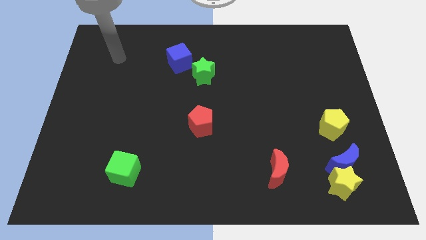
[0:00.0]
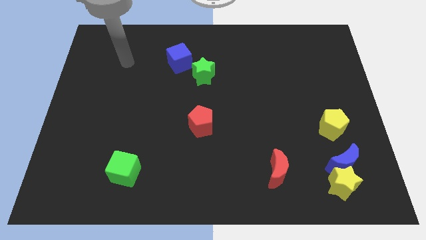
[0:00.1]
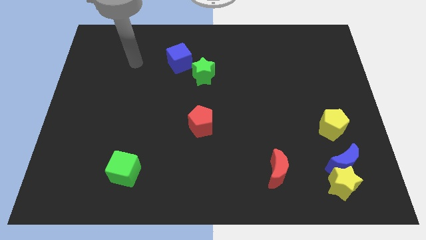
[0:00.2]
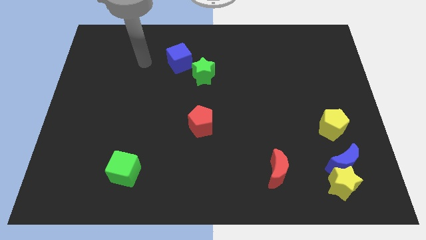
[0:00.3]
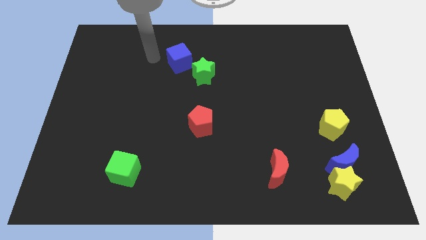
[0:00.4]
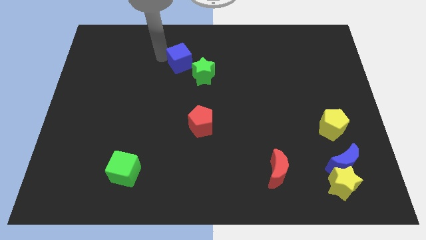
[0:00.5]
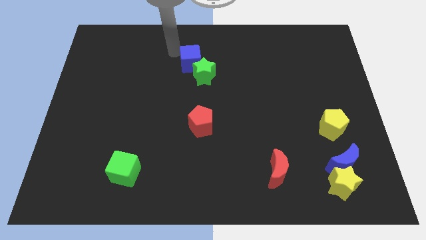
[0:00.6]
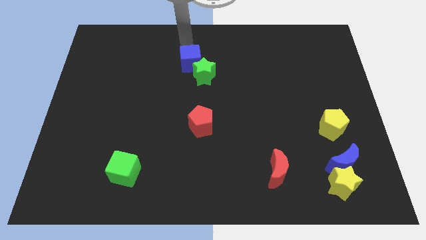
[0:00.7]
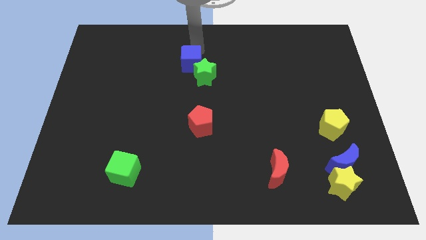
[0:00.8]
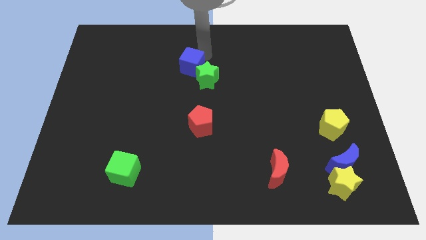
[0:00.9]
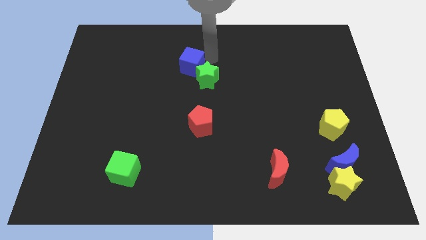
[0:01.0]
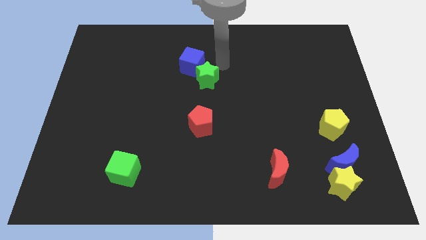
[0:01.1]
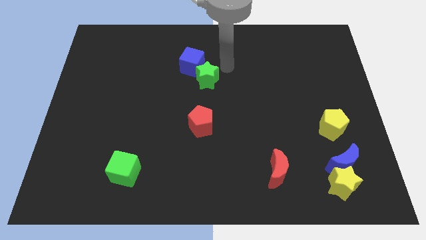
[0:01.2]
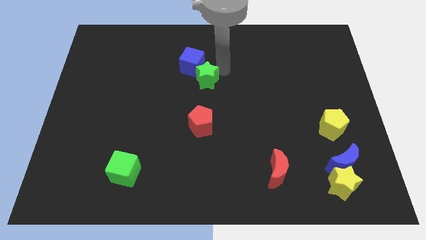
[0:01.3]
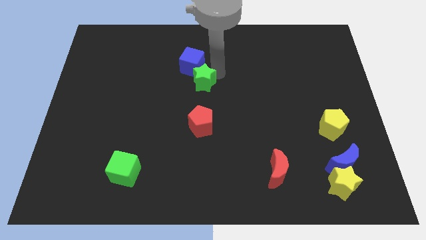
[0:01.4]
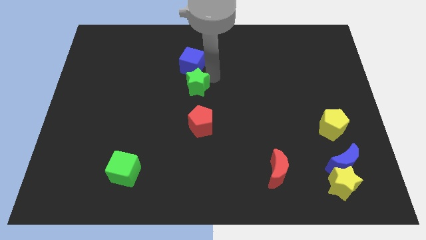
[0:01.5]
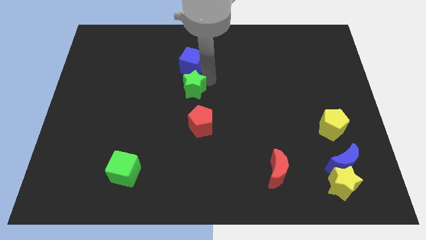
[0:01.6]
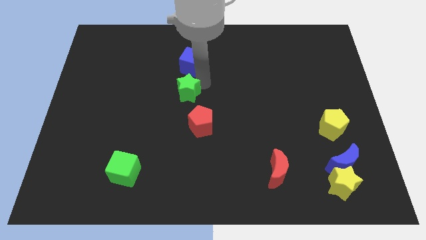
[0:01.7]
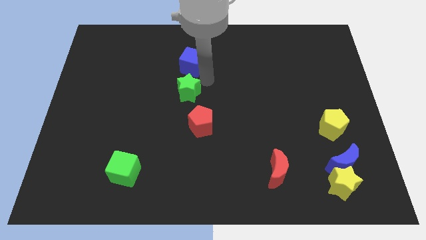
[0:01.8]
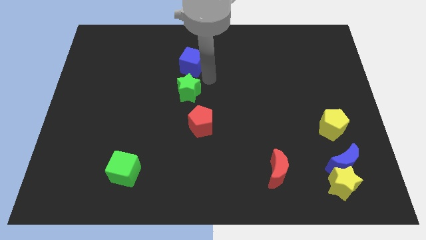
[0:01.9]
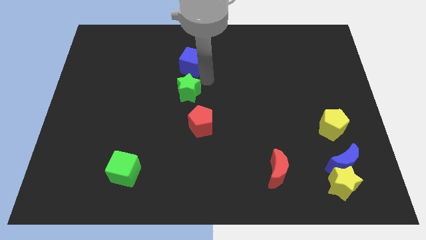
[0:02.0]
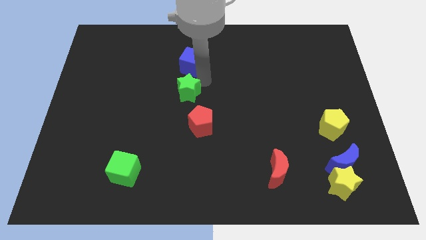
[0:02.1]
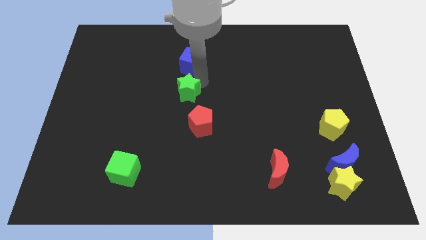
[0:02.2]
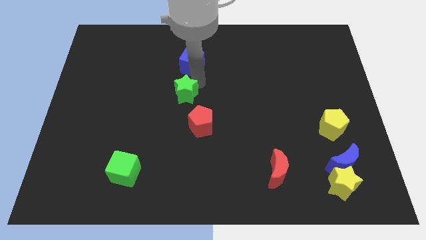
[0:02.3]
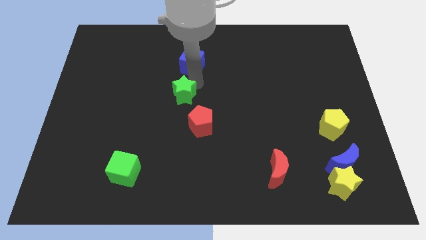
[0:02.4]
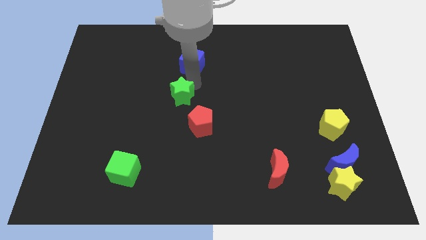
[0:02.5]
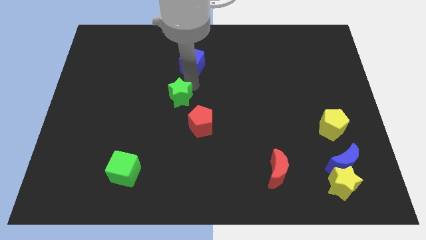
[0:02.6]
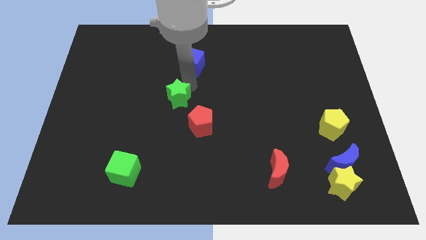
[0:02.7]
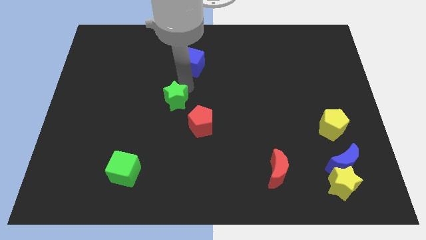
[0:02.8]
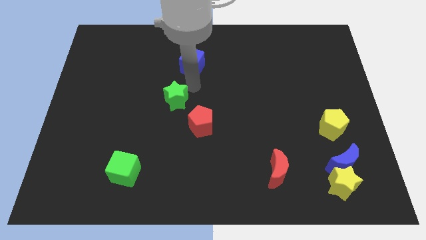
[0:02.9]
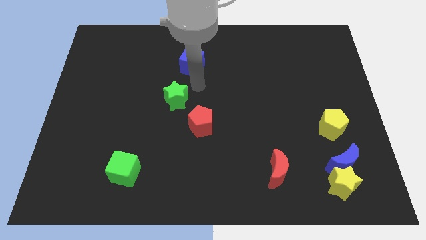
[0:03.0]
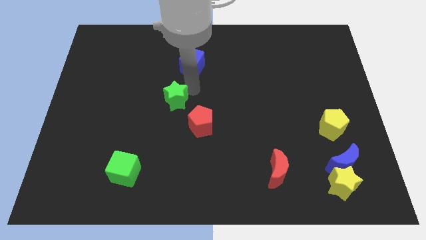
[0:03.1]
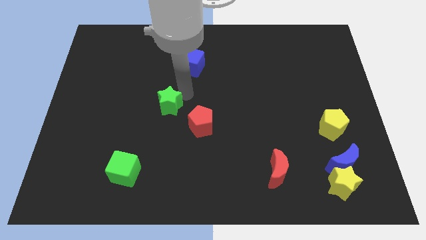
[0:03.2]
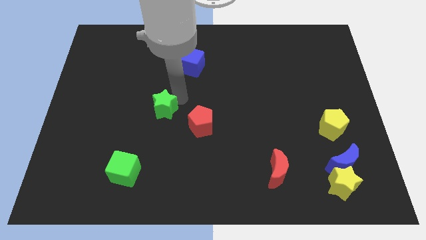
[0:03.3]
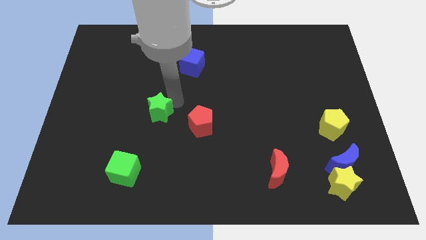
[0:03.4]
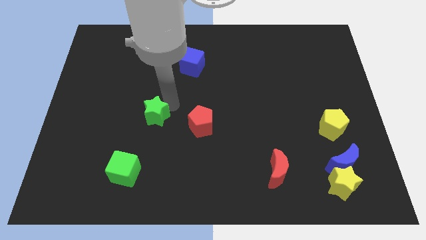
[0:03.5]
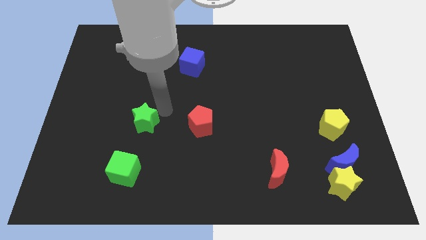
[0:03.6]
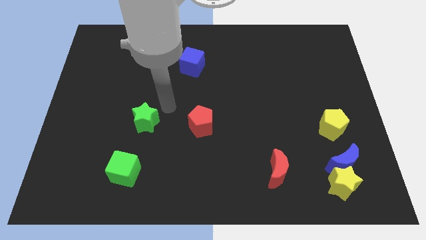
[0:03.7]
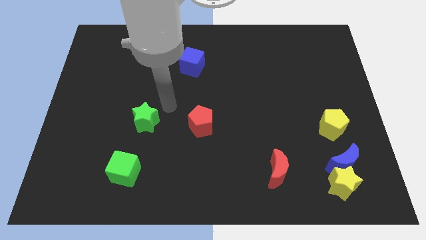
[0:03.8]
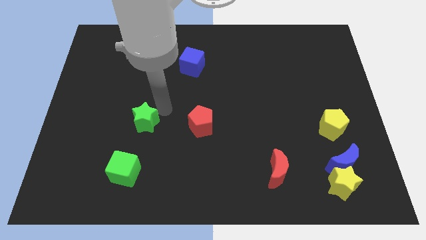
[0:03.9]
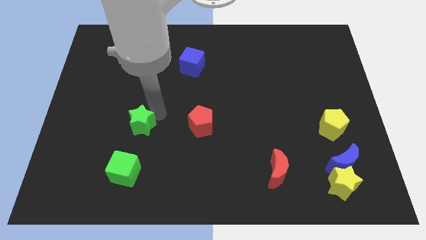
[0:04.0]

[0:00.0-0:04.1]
push the green star down and to the left

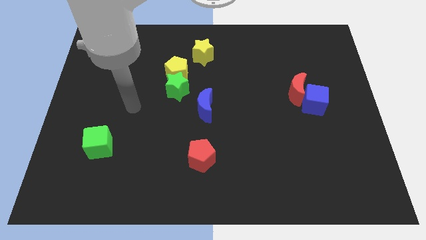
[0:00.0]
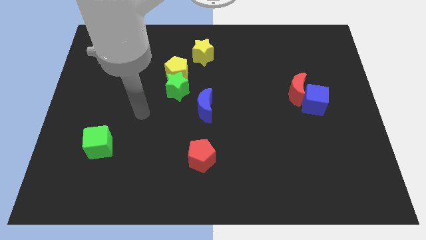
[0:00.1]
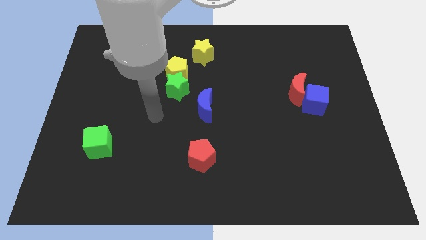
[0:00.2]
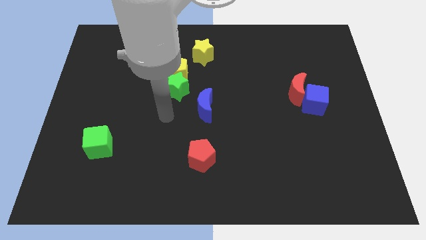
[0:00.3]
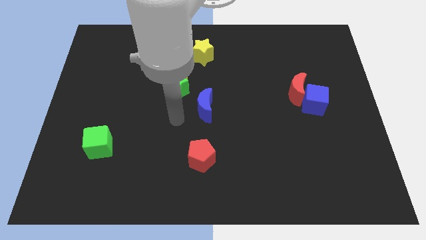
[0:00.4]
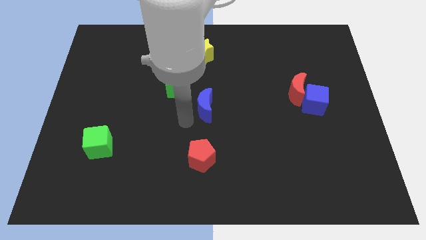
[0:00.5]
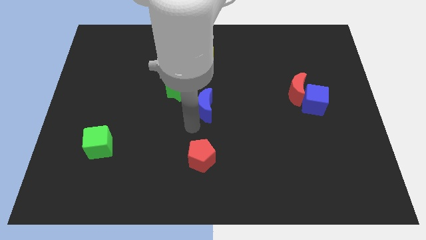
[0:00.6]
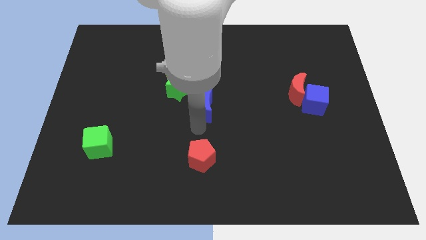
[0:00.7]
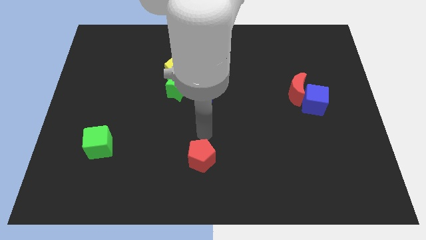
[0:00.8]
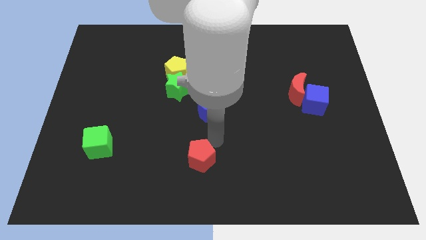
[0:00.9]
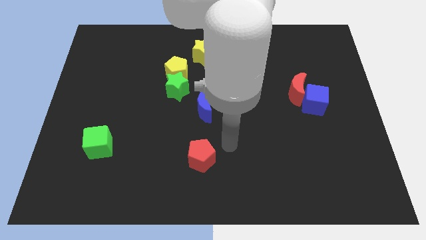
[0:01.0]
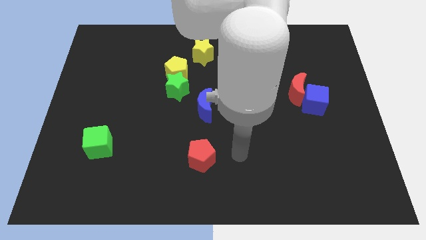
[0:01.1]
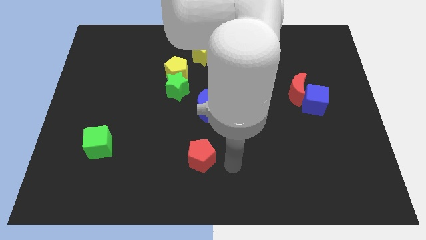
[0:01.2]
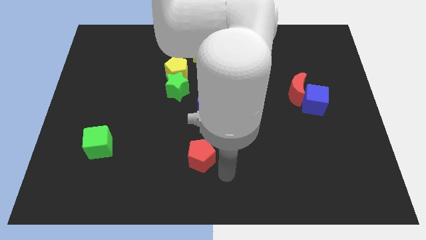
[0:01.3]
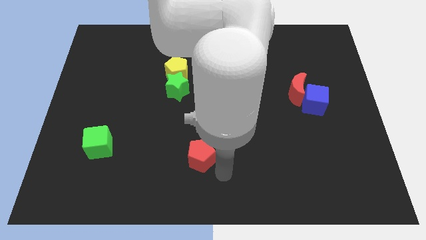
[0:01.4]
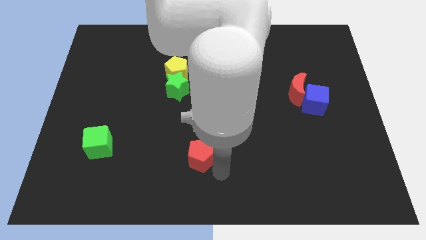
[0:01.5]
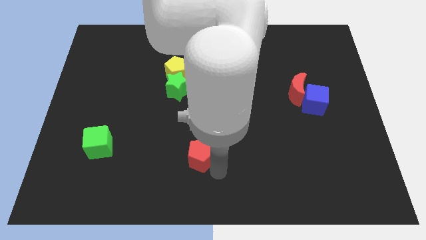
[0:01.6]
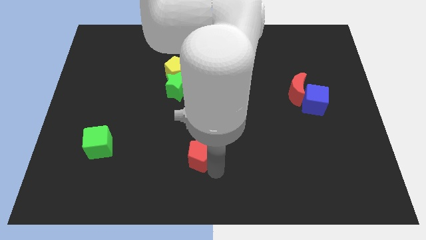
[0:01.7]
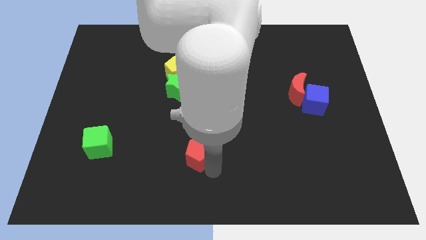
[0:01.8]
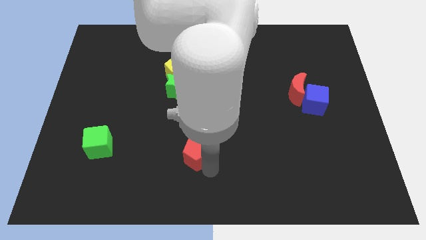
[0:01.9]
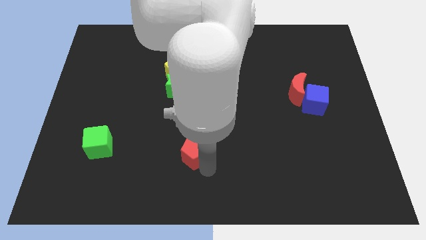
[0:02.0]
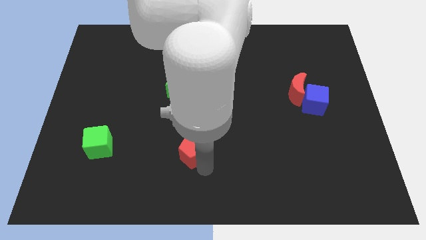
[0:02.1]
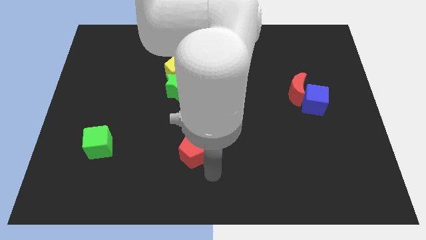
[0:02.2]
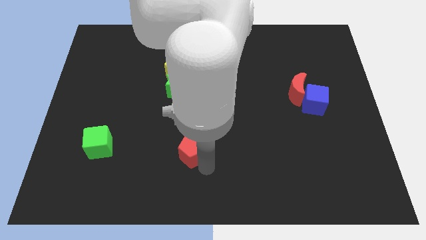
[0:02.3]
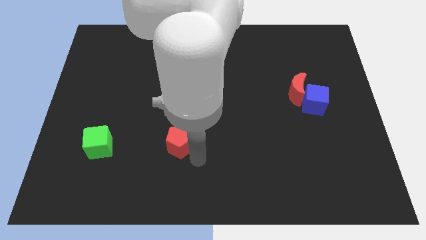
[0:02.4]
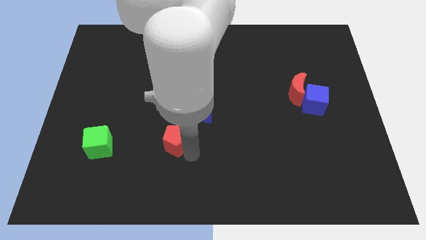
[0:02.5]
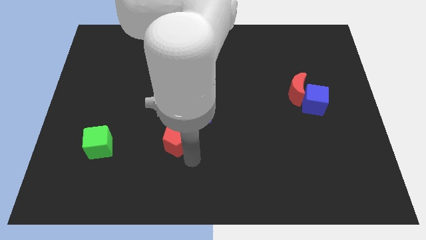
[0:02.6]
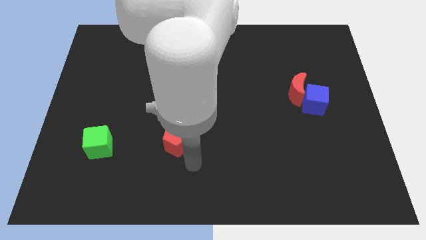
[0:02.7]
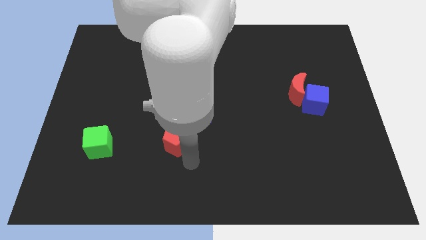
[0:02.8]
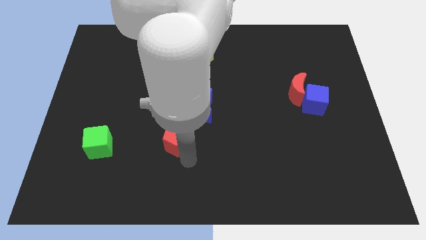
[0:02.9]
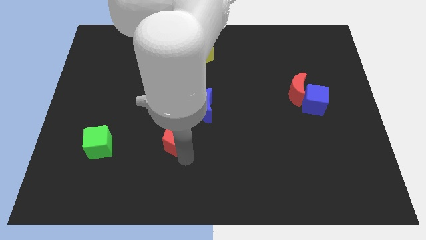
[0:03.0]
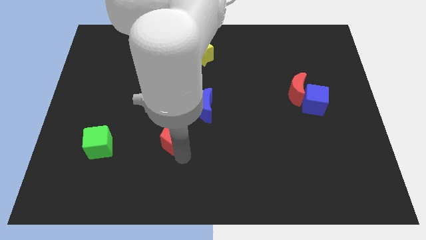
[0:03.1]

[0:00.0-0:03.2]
move the red pentagon a bit upwards and then to the left

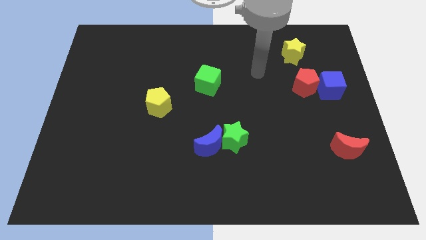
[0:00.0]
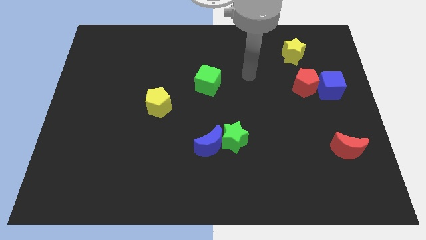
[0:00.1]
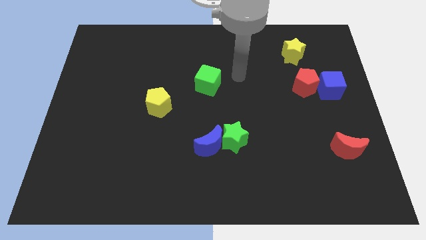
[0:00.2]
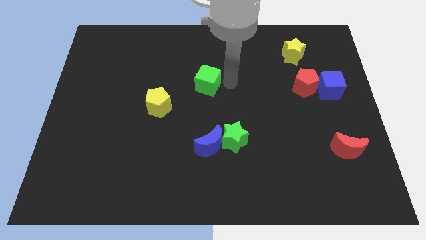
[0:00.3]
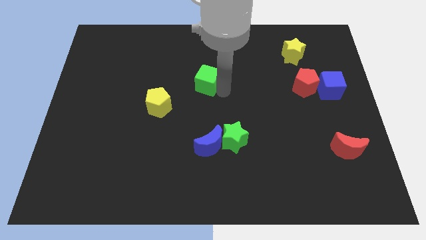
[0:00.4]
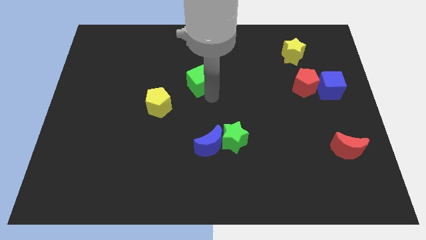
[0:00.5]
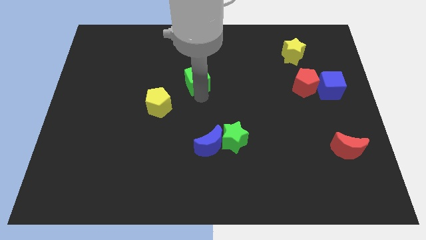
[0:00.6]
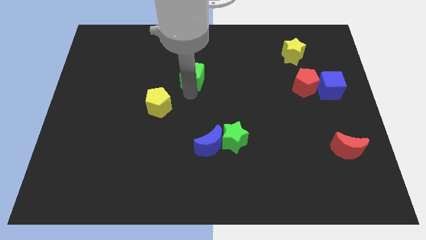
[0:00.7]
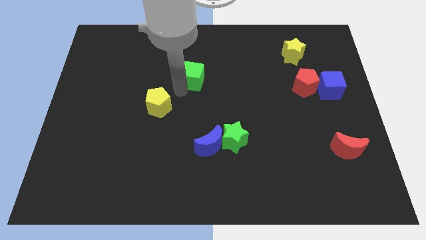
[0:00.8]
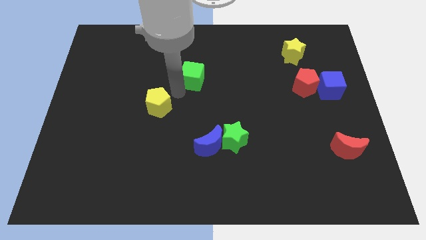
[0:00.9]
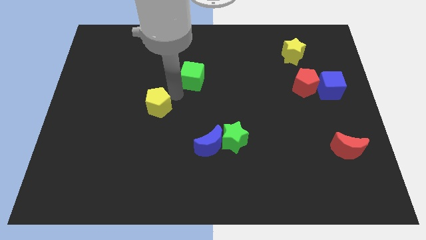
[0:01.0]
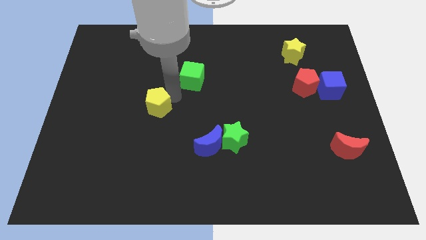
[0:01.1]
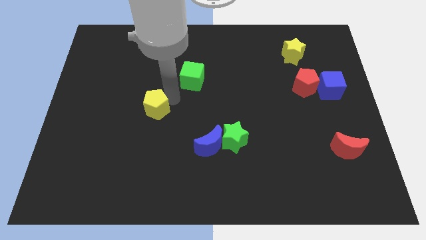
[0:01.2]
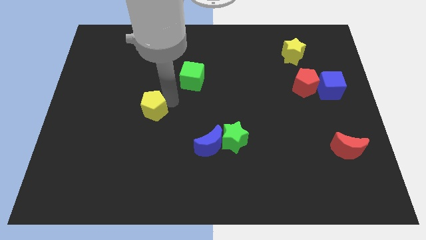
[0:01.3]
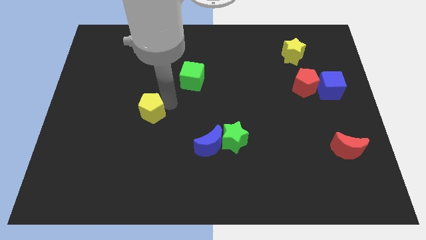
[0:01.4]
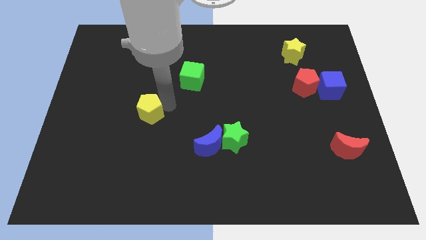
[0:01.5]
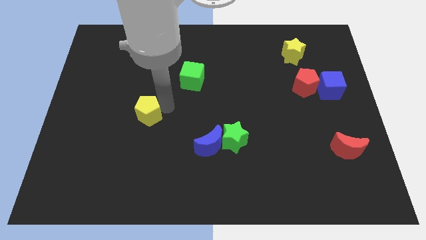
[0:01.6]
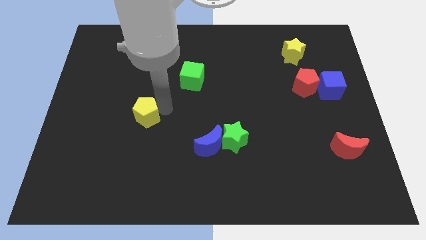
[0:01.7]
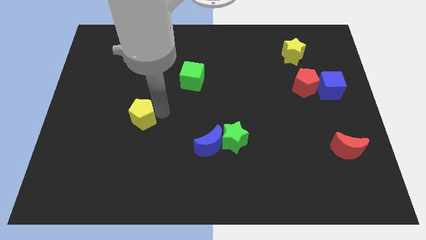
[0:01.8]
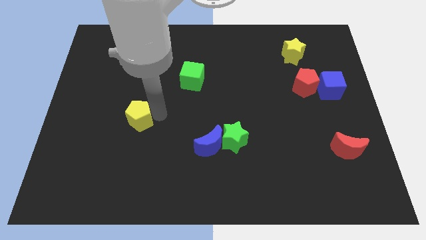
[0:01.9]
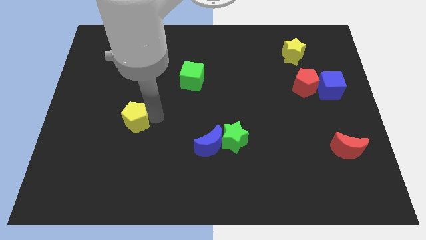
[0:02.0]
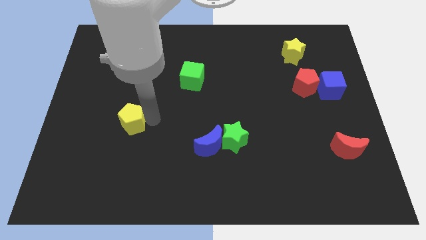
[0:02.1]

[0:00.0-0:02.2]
slide the yellow pentagon a bit down and then to the left
